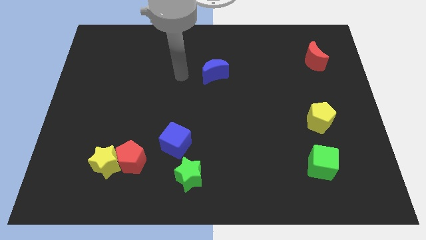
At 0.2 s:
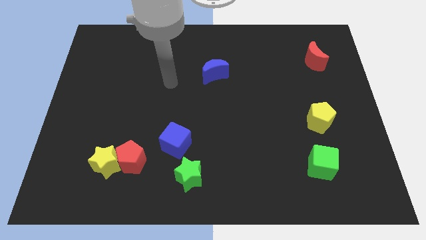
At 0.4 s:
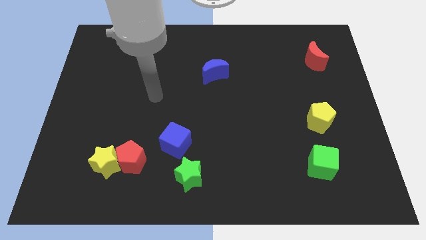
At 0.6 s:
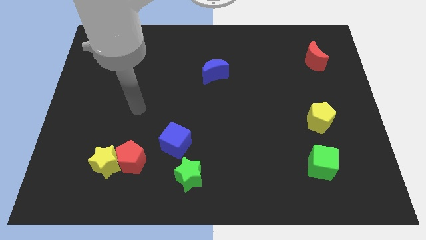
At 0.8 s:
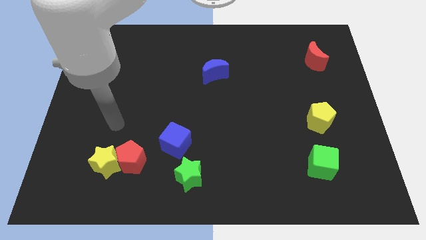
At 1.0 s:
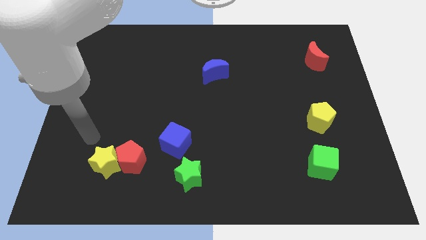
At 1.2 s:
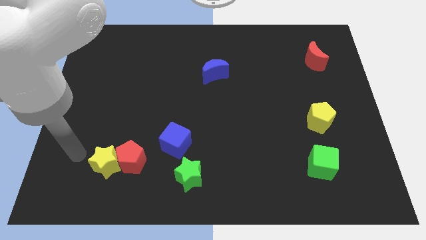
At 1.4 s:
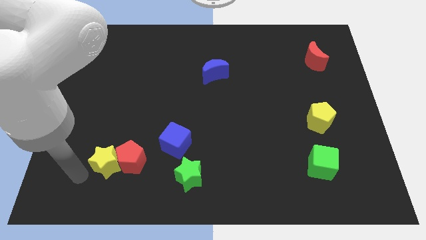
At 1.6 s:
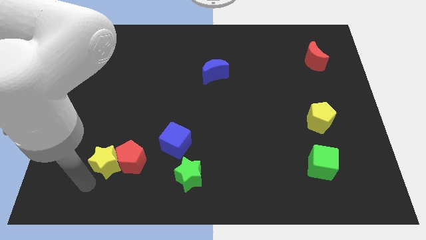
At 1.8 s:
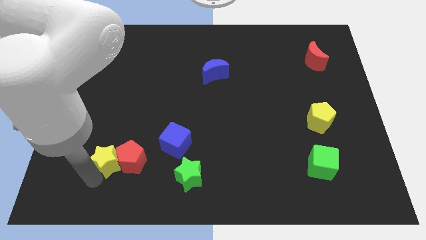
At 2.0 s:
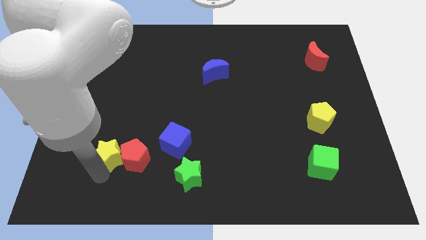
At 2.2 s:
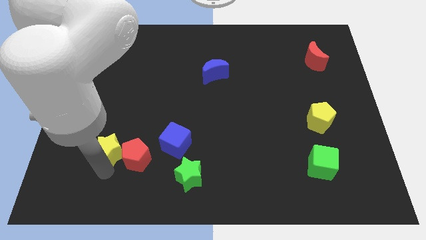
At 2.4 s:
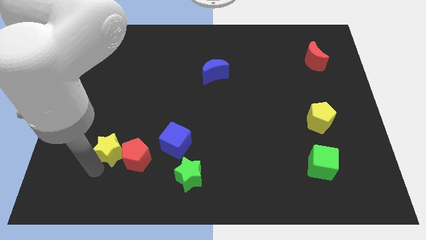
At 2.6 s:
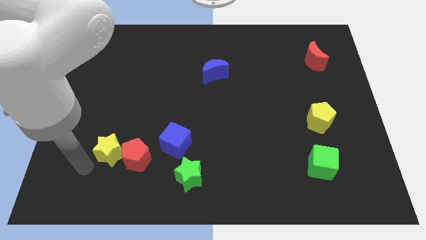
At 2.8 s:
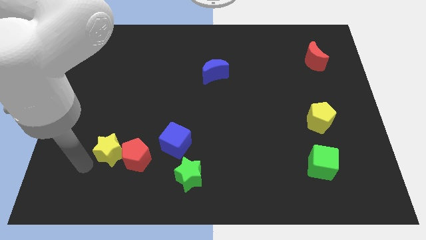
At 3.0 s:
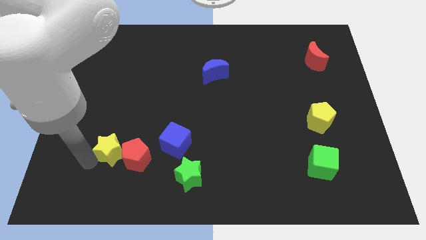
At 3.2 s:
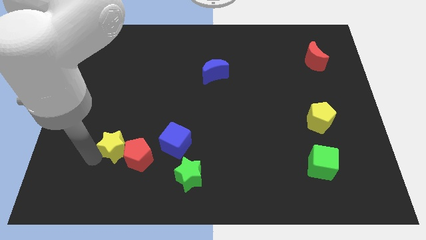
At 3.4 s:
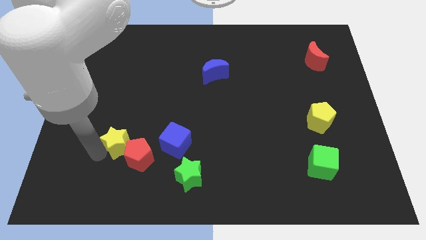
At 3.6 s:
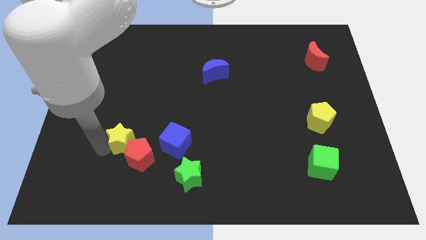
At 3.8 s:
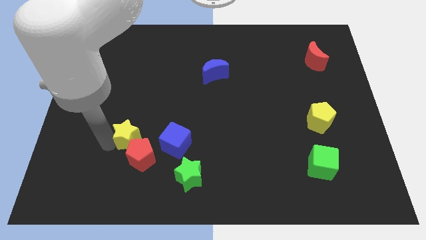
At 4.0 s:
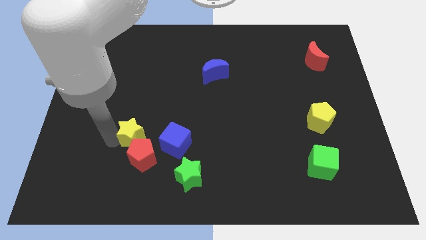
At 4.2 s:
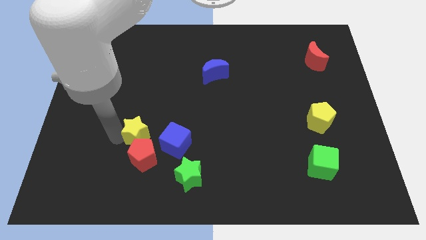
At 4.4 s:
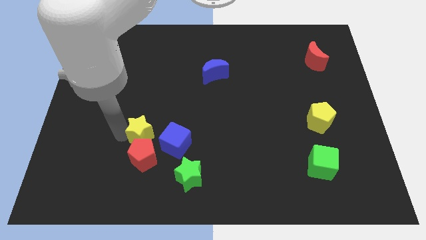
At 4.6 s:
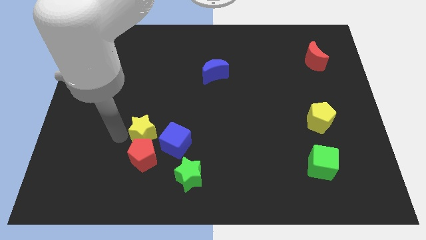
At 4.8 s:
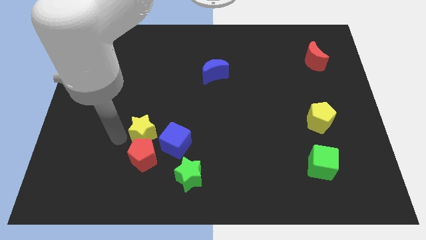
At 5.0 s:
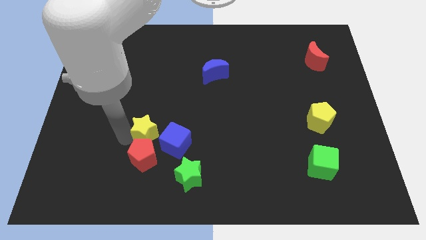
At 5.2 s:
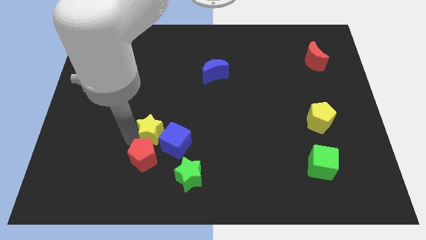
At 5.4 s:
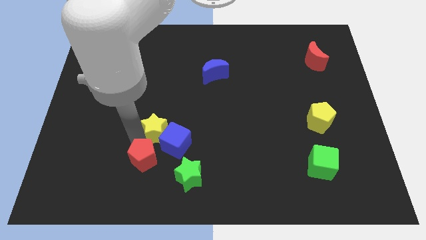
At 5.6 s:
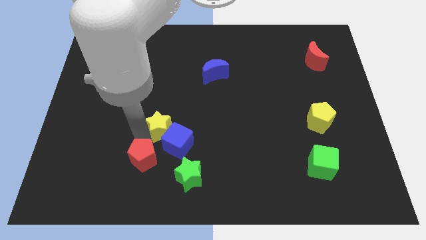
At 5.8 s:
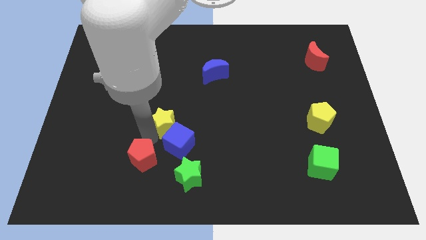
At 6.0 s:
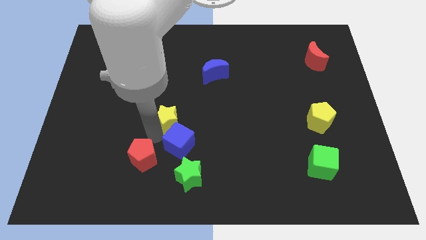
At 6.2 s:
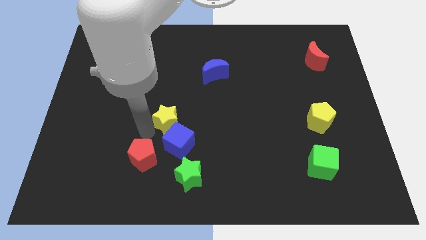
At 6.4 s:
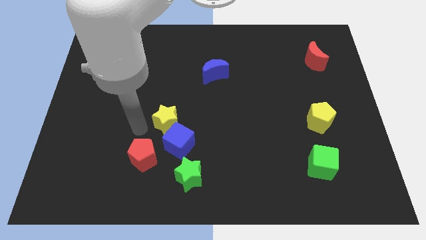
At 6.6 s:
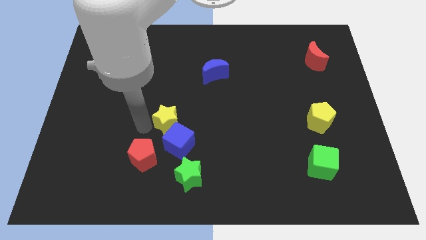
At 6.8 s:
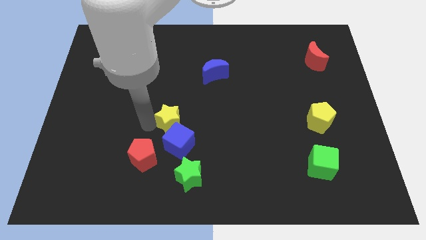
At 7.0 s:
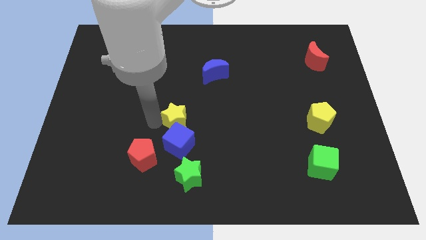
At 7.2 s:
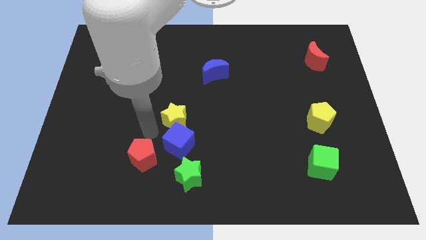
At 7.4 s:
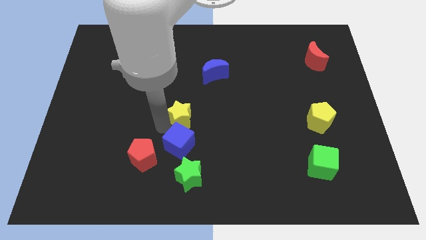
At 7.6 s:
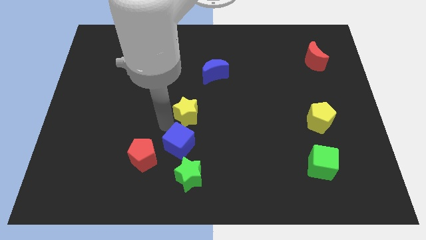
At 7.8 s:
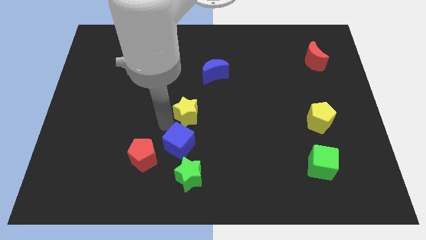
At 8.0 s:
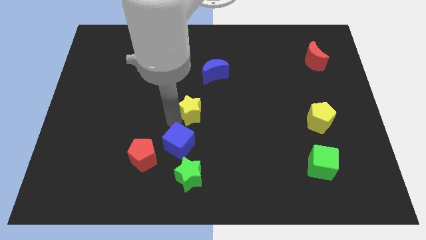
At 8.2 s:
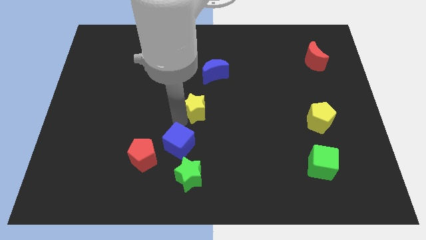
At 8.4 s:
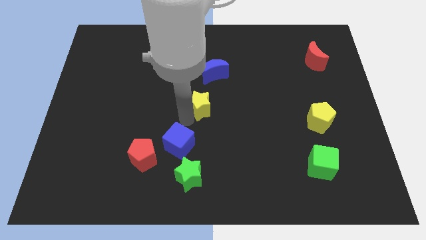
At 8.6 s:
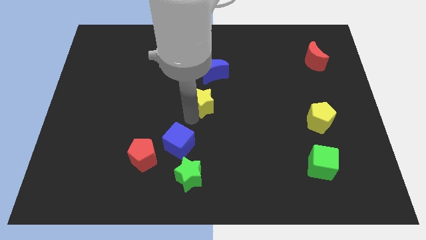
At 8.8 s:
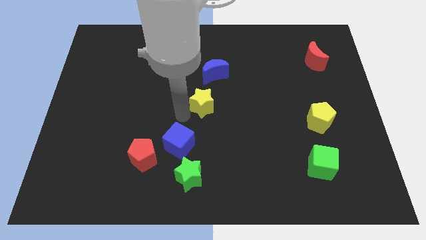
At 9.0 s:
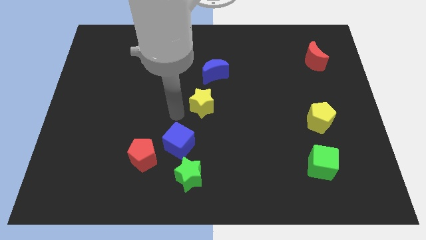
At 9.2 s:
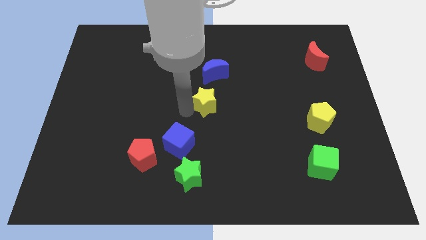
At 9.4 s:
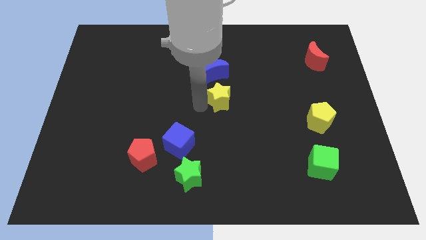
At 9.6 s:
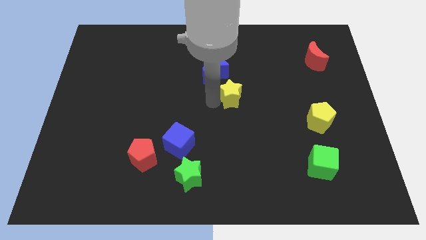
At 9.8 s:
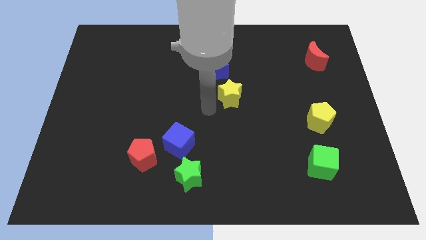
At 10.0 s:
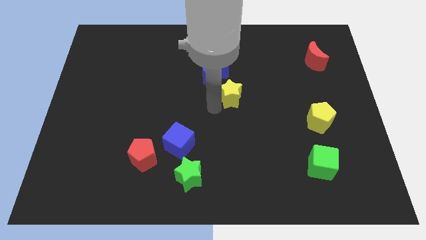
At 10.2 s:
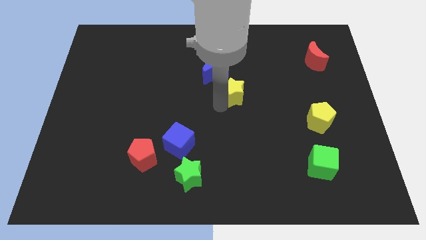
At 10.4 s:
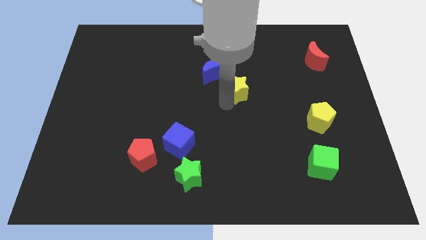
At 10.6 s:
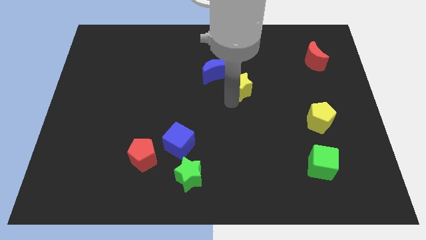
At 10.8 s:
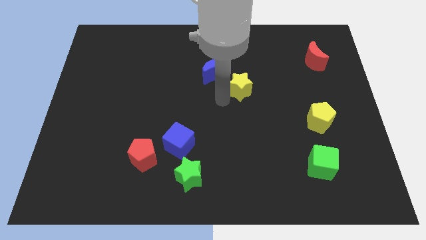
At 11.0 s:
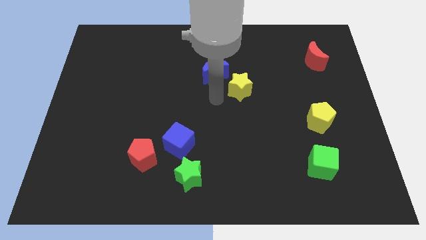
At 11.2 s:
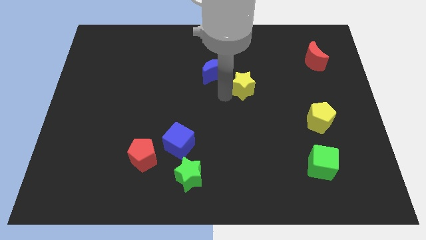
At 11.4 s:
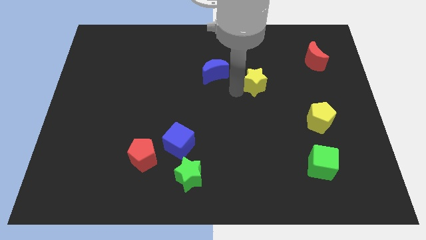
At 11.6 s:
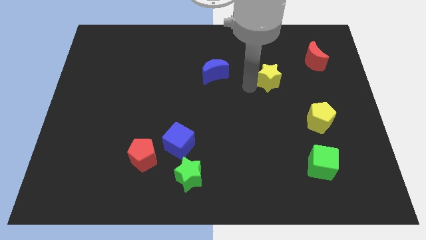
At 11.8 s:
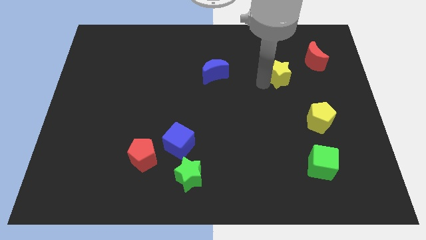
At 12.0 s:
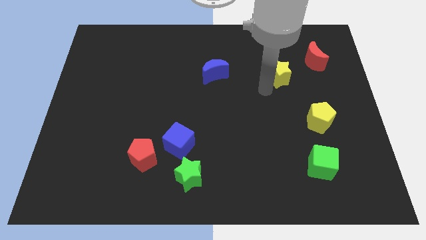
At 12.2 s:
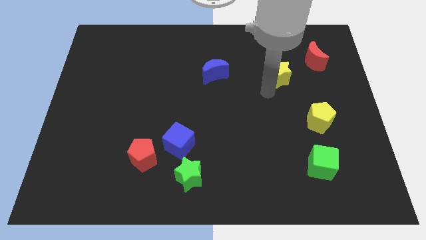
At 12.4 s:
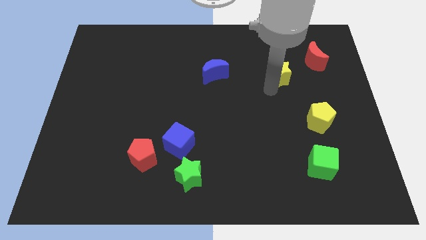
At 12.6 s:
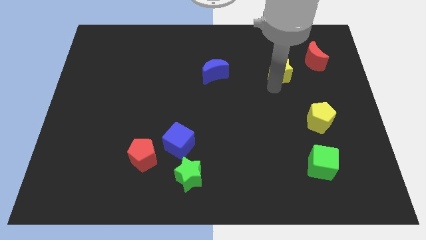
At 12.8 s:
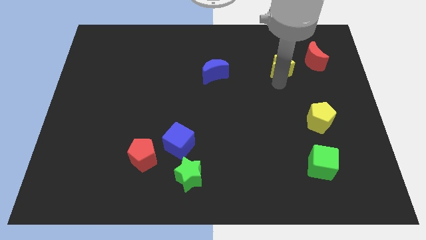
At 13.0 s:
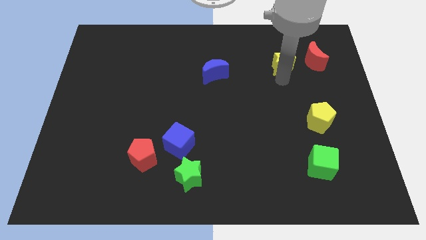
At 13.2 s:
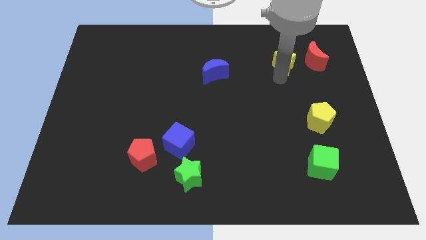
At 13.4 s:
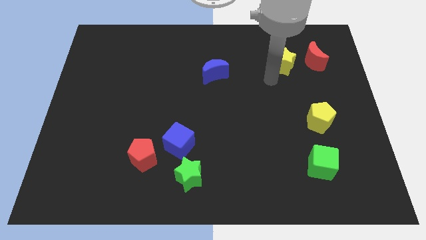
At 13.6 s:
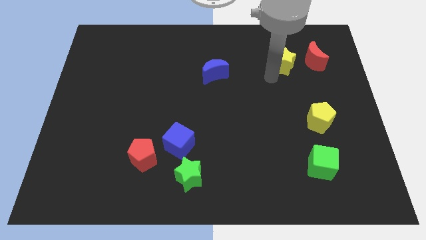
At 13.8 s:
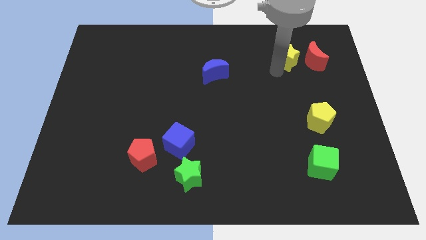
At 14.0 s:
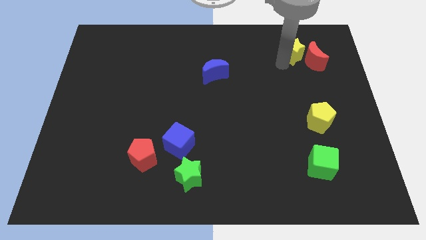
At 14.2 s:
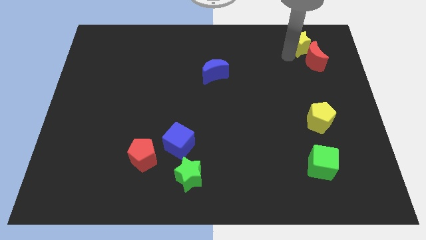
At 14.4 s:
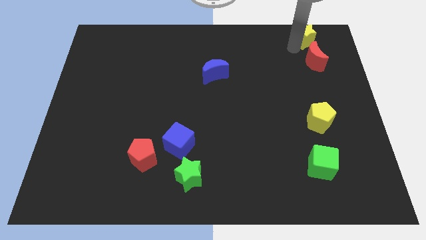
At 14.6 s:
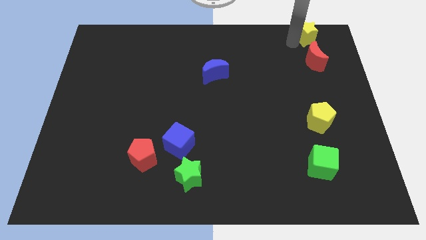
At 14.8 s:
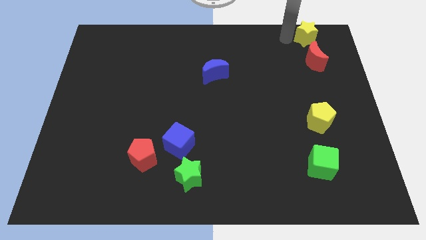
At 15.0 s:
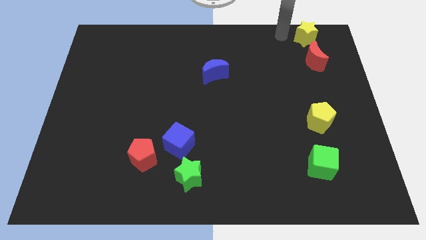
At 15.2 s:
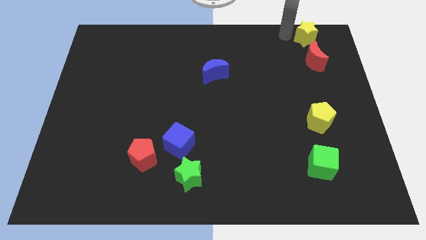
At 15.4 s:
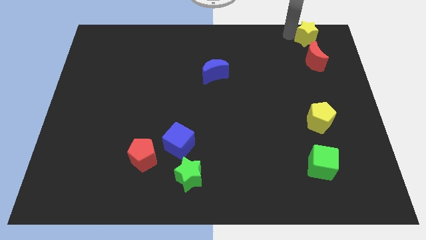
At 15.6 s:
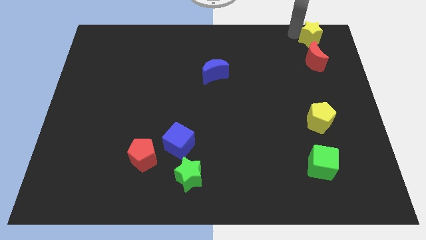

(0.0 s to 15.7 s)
move the yellow star to the top right corner

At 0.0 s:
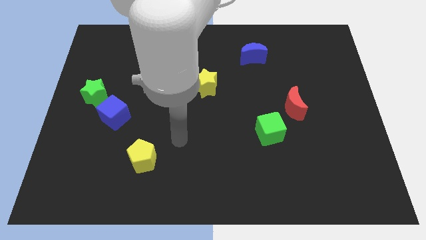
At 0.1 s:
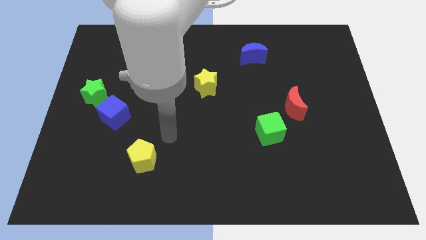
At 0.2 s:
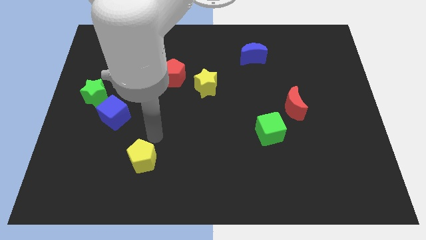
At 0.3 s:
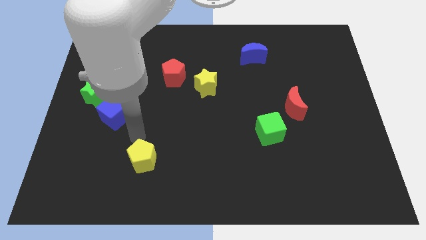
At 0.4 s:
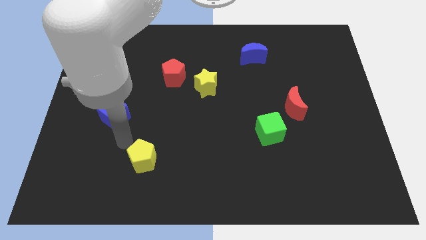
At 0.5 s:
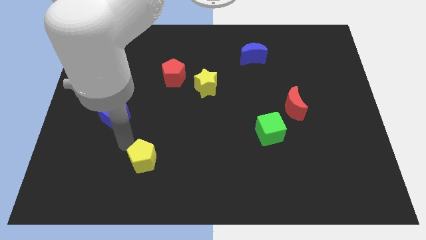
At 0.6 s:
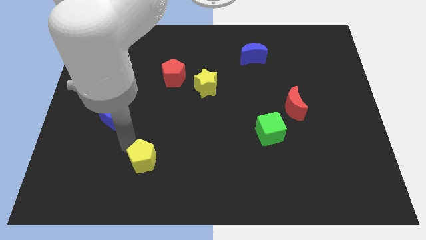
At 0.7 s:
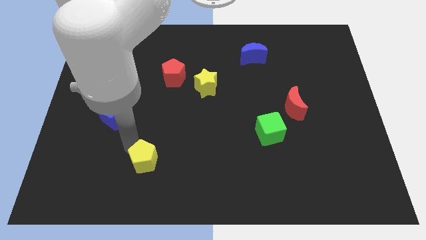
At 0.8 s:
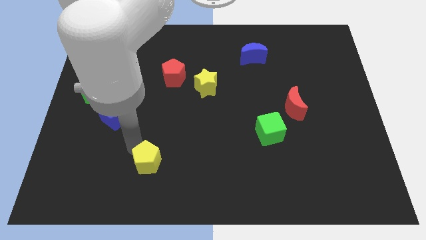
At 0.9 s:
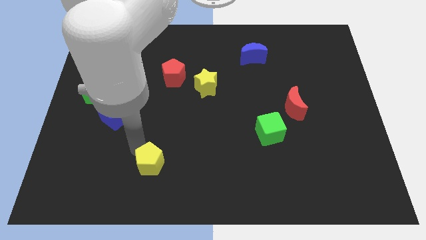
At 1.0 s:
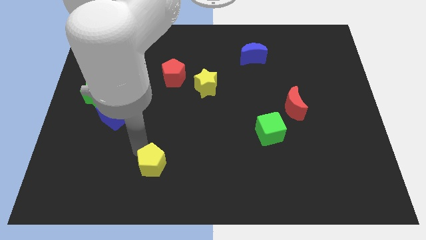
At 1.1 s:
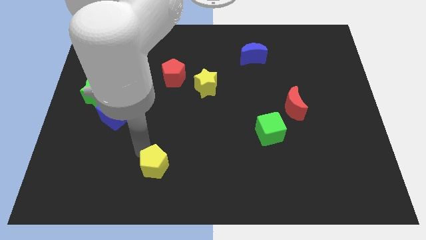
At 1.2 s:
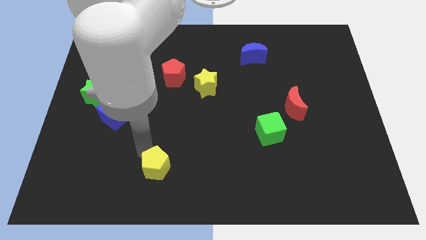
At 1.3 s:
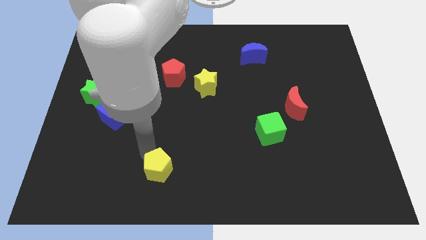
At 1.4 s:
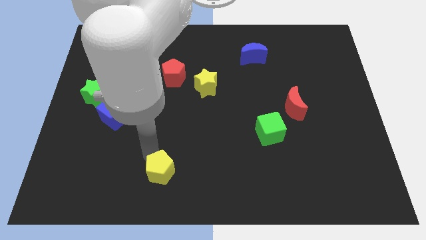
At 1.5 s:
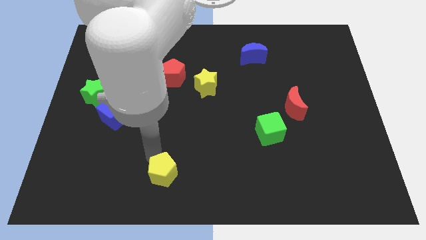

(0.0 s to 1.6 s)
move the yellow pentagon to the bottom
